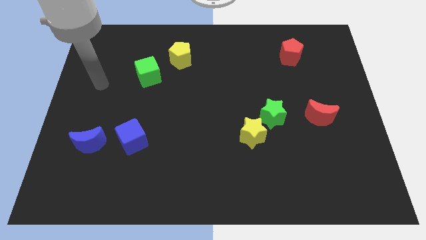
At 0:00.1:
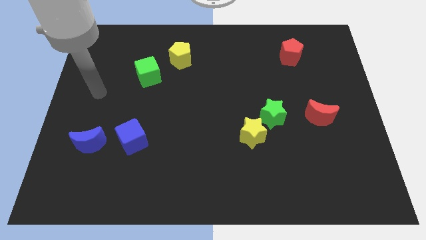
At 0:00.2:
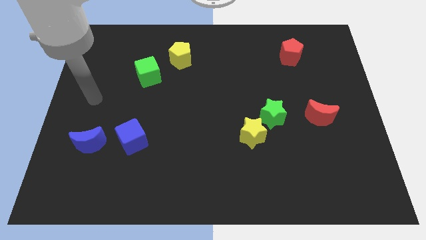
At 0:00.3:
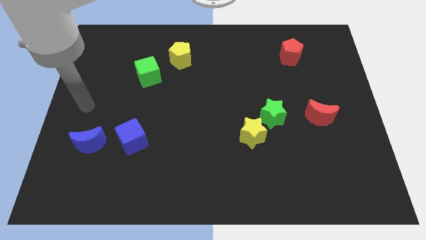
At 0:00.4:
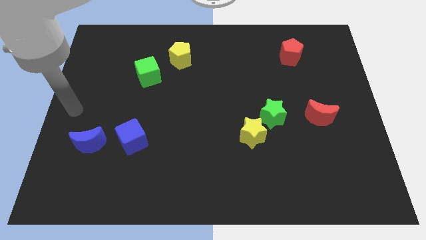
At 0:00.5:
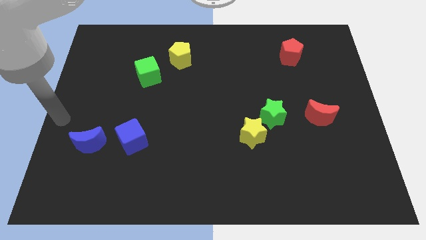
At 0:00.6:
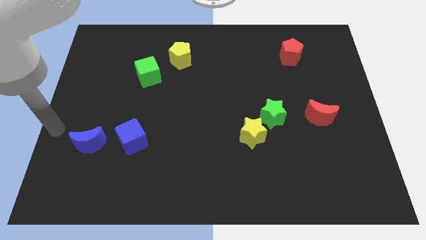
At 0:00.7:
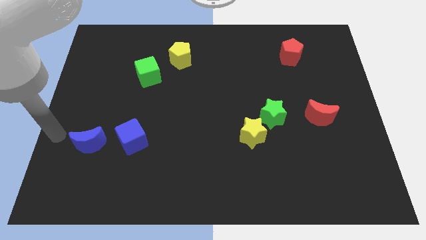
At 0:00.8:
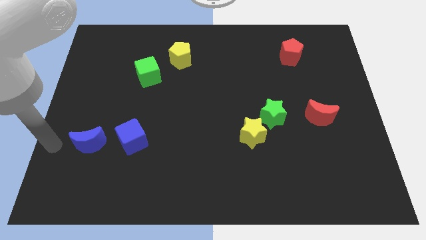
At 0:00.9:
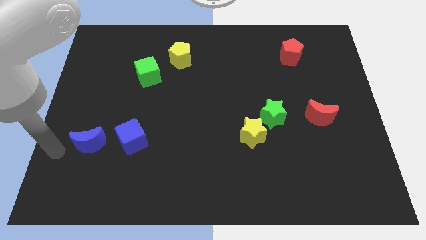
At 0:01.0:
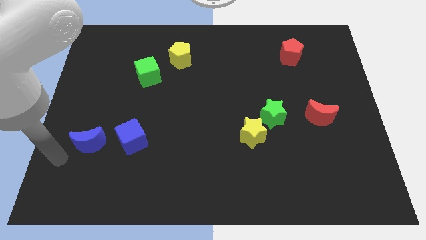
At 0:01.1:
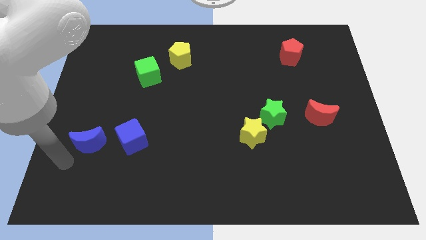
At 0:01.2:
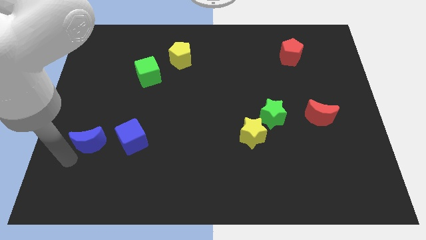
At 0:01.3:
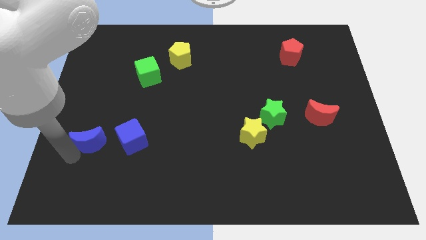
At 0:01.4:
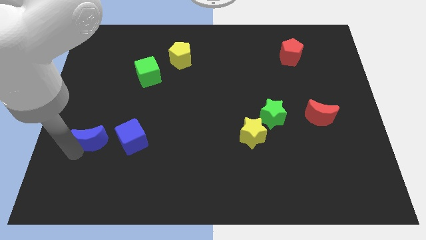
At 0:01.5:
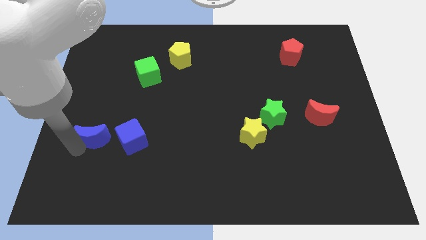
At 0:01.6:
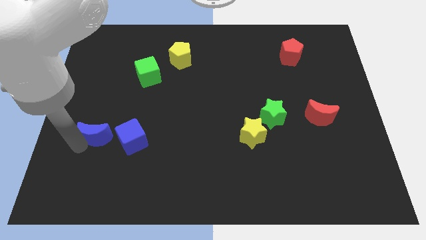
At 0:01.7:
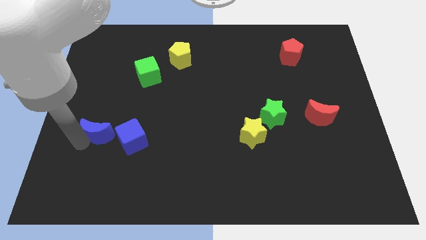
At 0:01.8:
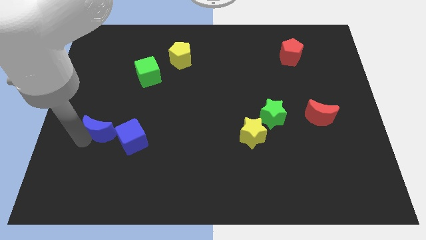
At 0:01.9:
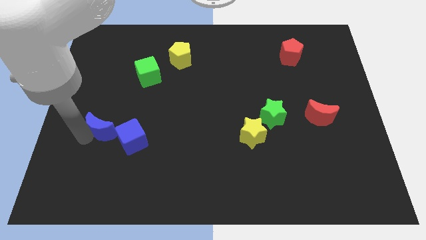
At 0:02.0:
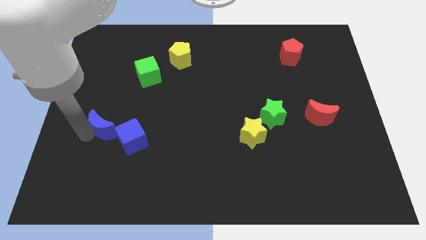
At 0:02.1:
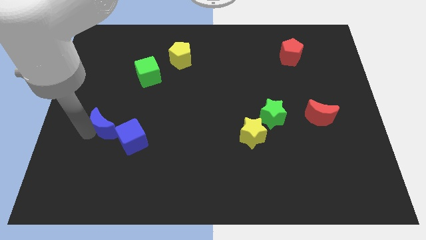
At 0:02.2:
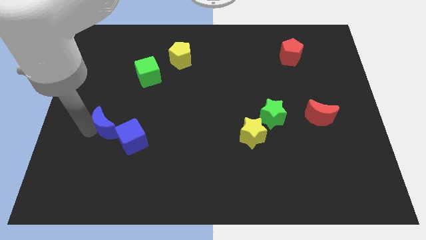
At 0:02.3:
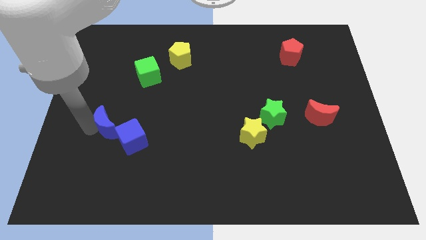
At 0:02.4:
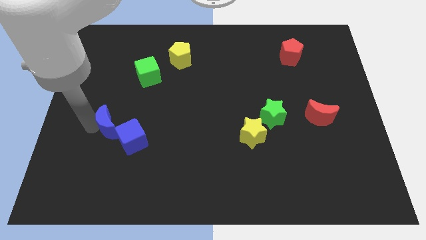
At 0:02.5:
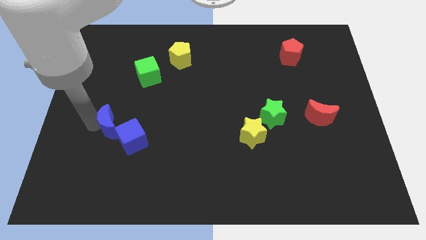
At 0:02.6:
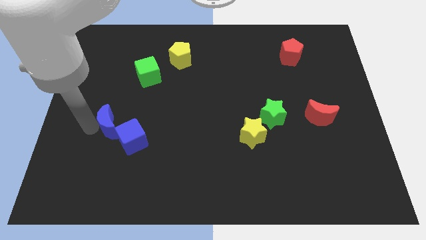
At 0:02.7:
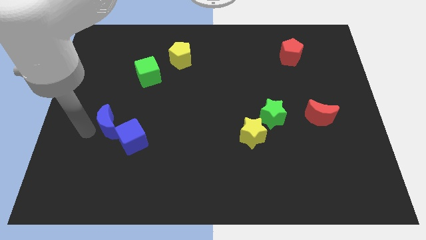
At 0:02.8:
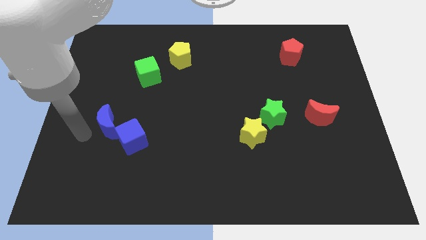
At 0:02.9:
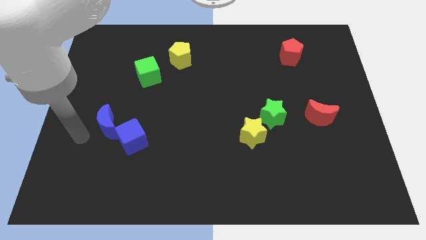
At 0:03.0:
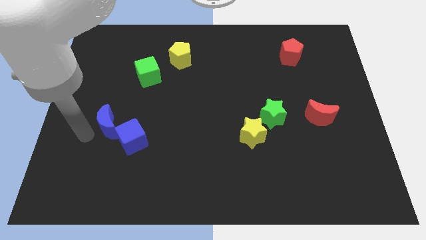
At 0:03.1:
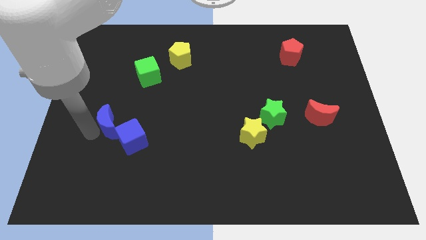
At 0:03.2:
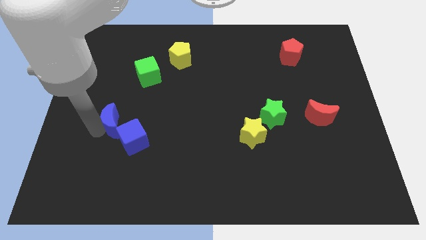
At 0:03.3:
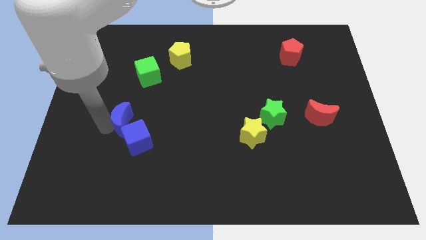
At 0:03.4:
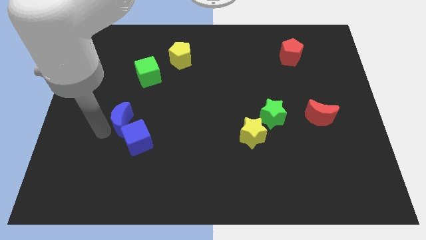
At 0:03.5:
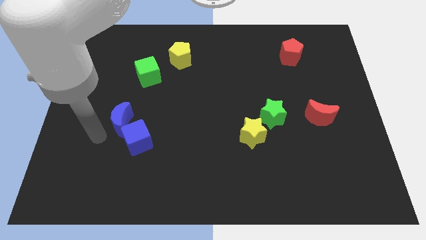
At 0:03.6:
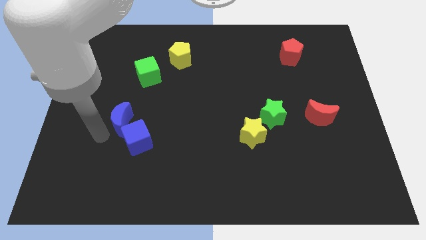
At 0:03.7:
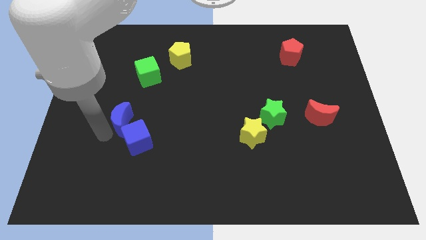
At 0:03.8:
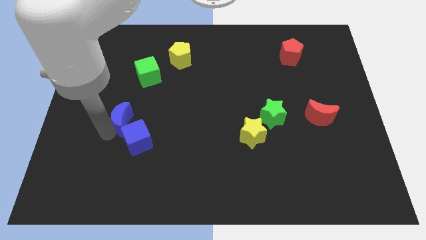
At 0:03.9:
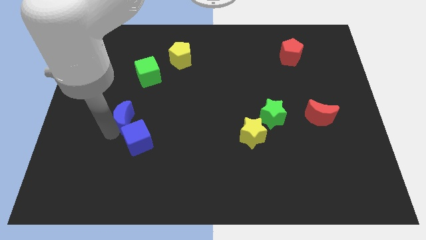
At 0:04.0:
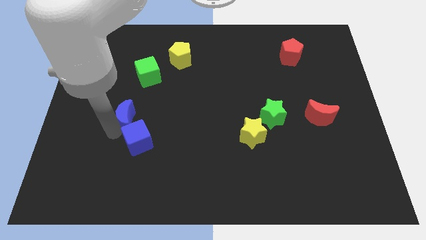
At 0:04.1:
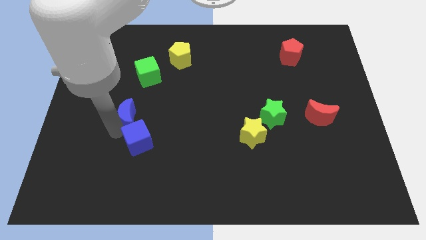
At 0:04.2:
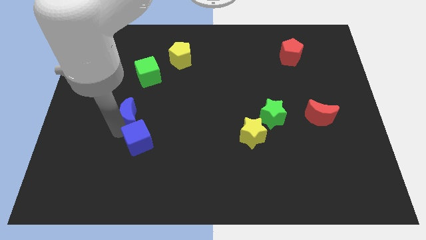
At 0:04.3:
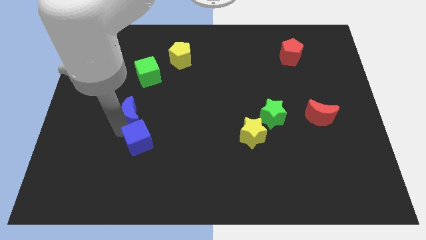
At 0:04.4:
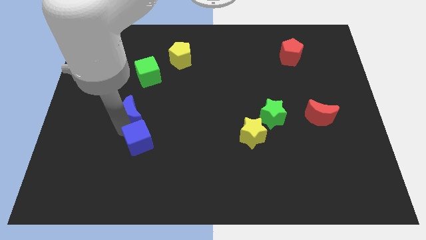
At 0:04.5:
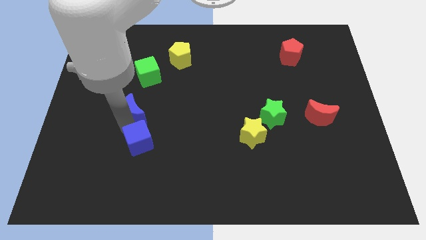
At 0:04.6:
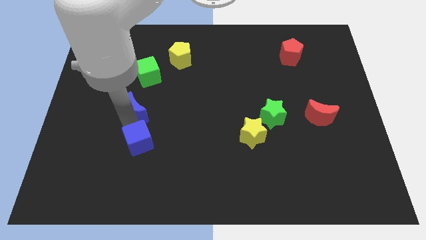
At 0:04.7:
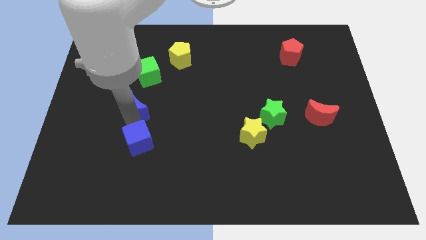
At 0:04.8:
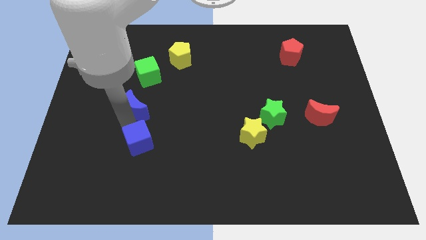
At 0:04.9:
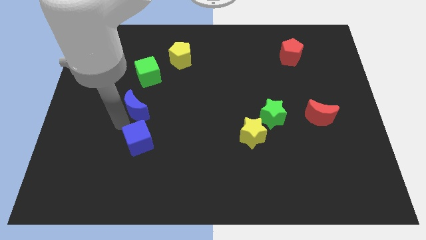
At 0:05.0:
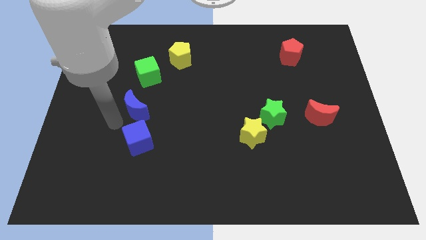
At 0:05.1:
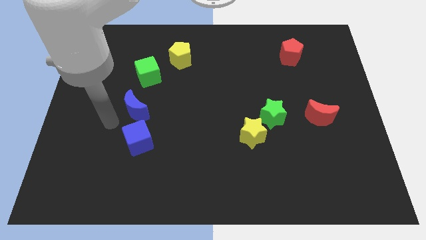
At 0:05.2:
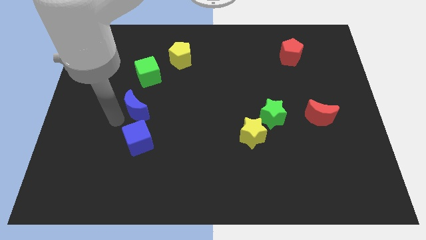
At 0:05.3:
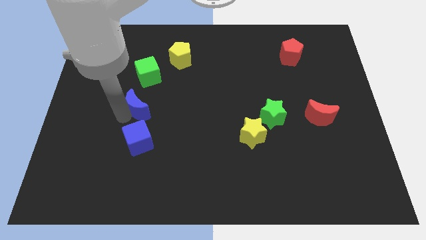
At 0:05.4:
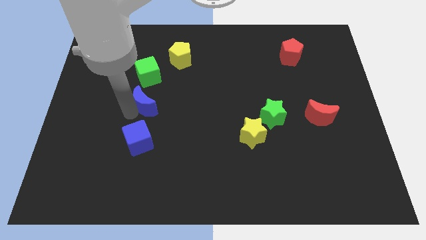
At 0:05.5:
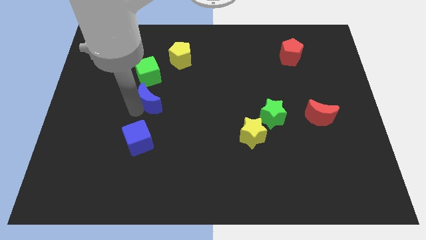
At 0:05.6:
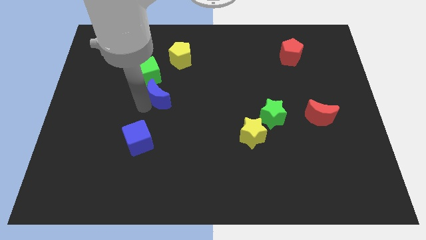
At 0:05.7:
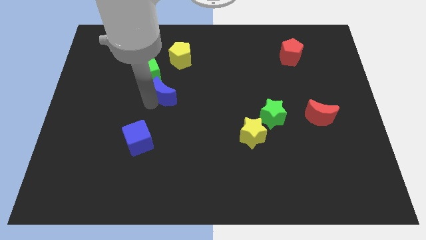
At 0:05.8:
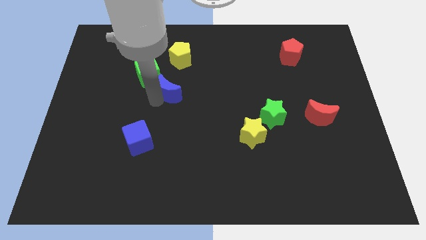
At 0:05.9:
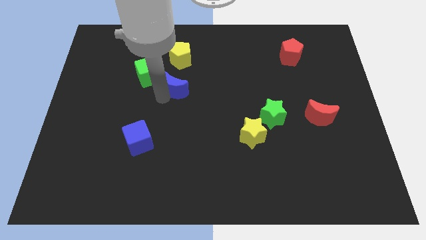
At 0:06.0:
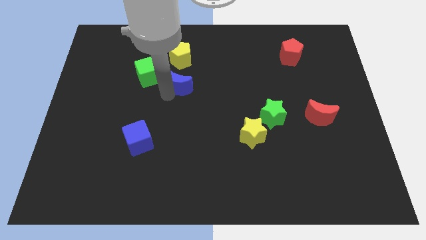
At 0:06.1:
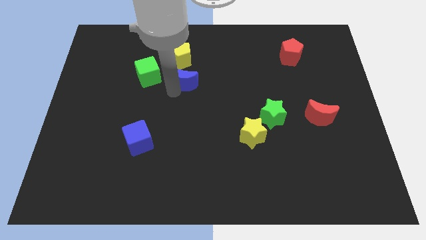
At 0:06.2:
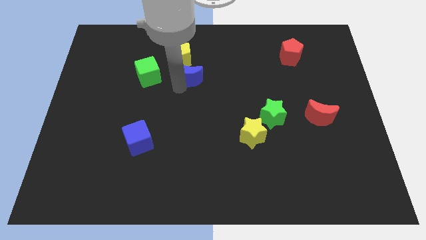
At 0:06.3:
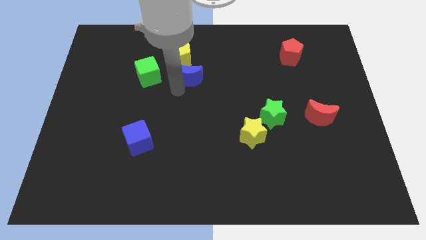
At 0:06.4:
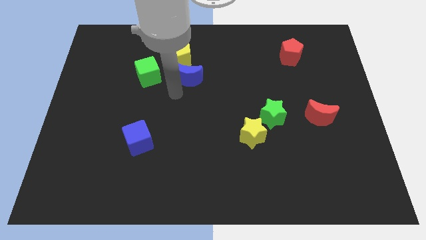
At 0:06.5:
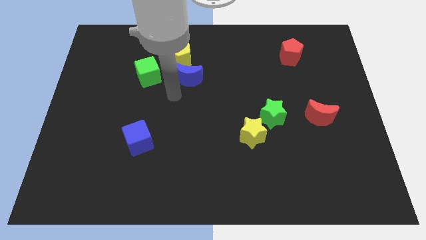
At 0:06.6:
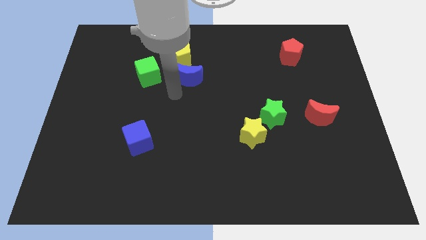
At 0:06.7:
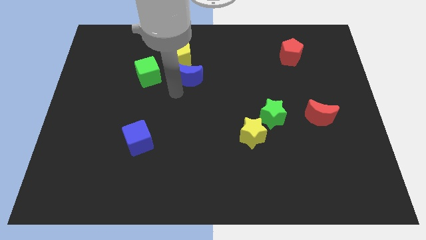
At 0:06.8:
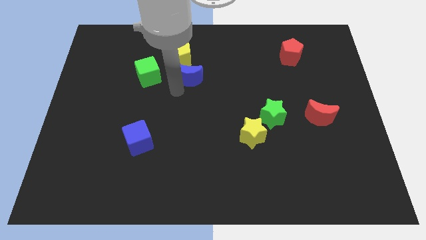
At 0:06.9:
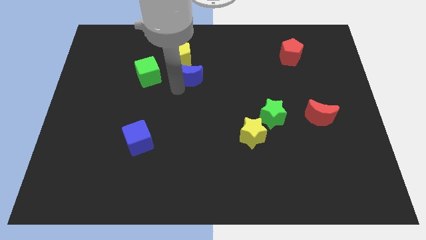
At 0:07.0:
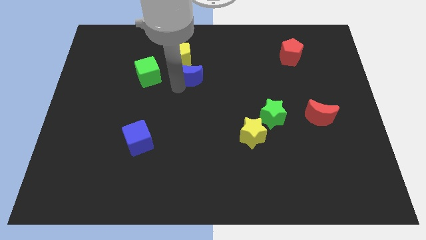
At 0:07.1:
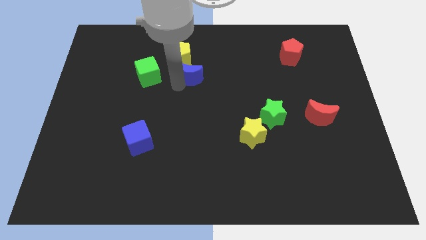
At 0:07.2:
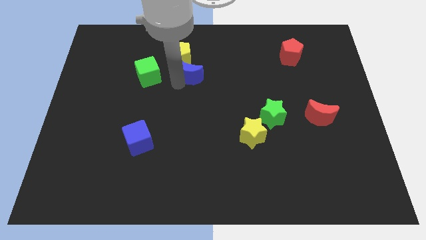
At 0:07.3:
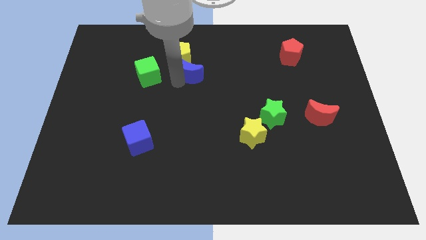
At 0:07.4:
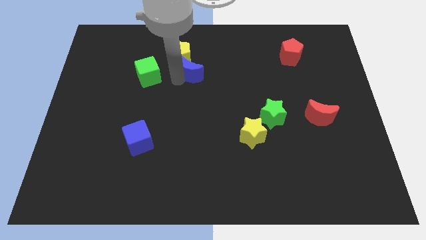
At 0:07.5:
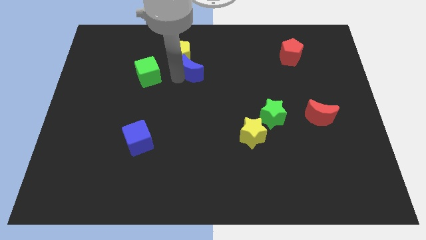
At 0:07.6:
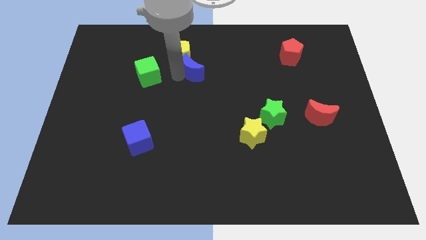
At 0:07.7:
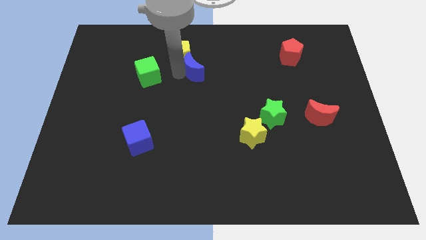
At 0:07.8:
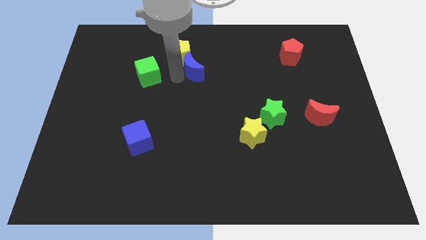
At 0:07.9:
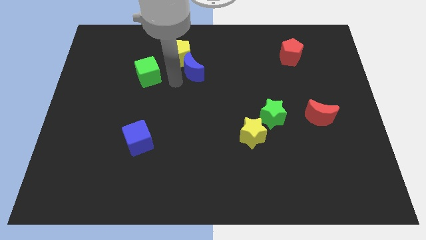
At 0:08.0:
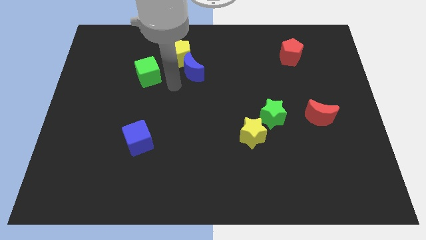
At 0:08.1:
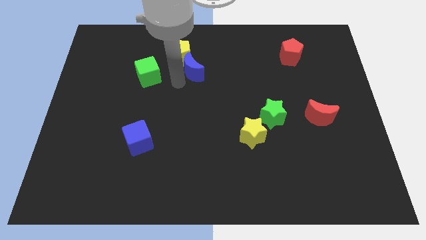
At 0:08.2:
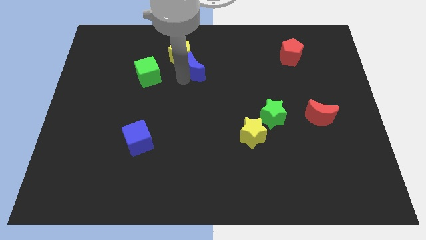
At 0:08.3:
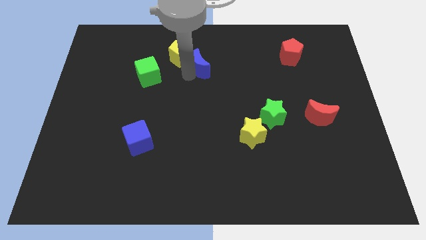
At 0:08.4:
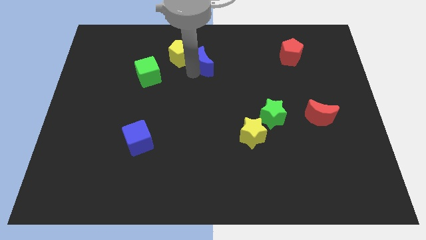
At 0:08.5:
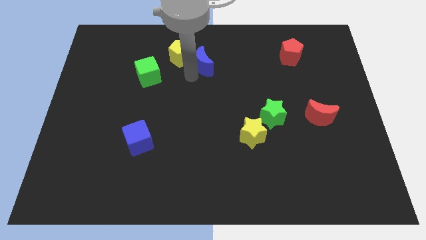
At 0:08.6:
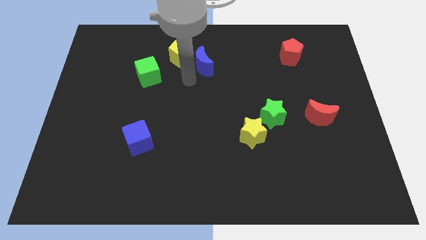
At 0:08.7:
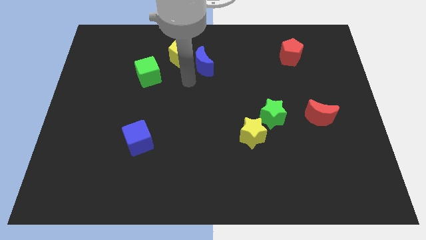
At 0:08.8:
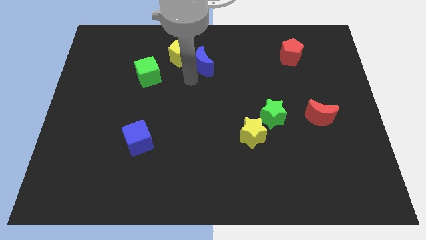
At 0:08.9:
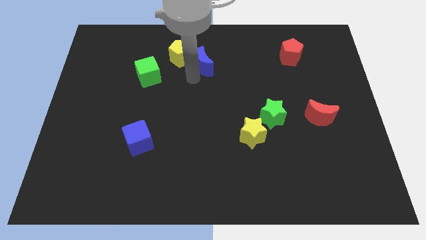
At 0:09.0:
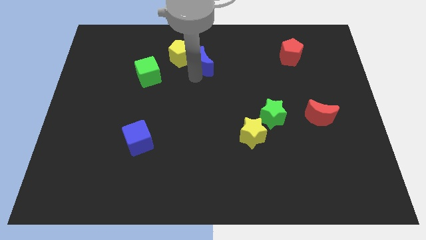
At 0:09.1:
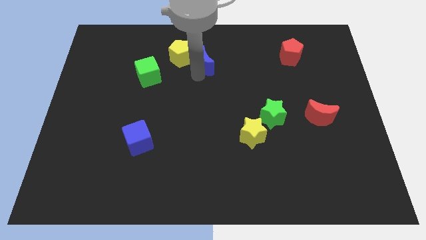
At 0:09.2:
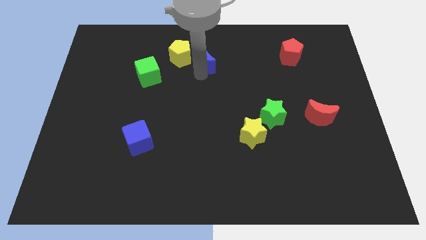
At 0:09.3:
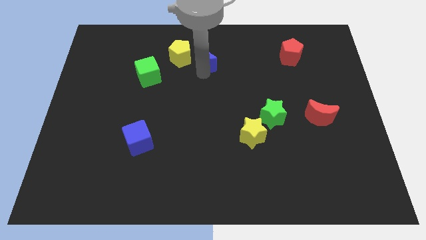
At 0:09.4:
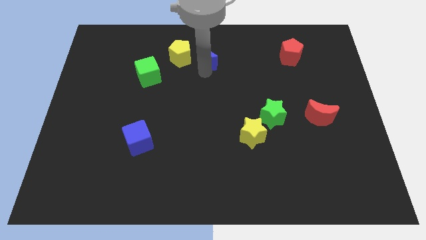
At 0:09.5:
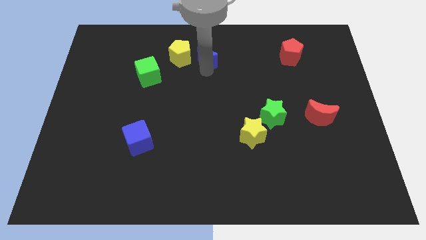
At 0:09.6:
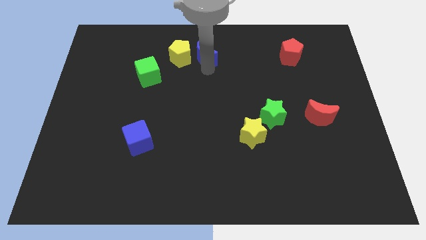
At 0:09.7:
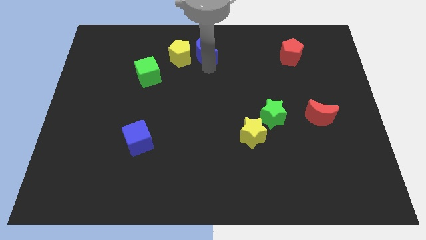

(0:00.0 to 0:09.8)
slide the blue moon to the top
